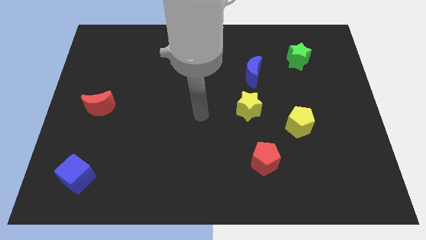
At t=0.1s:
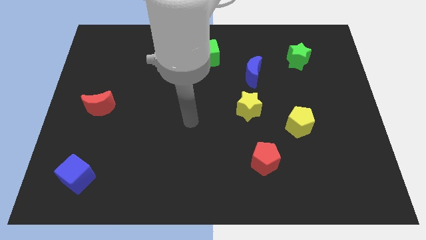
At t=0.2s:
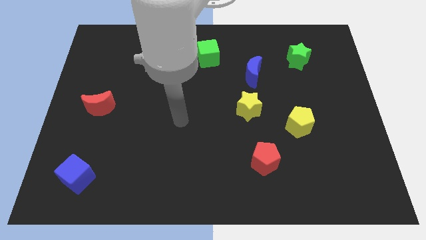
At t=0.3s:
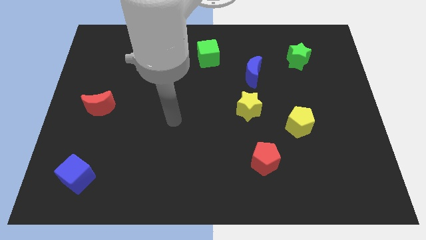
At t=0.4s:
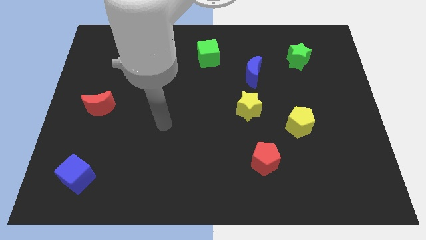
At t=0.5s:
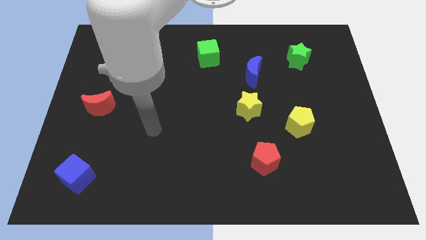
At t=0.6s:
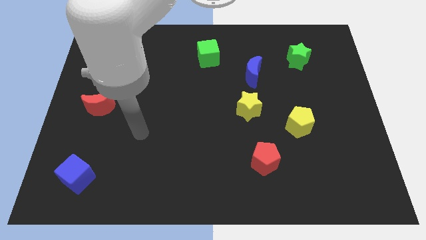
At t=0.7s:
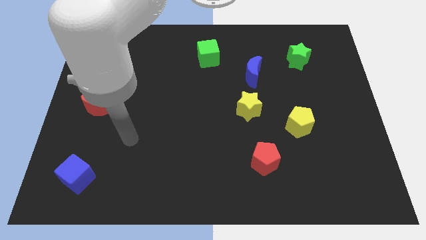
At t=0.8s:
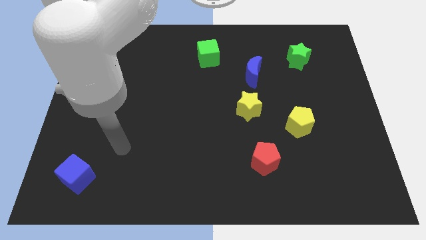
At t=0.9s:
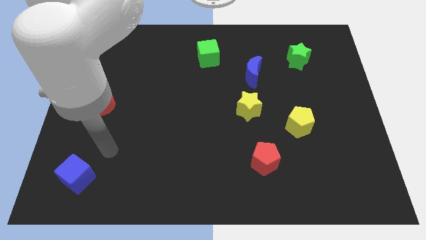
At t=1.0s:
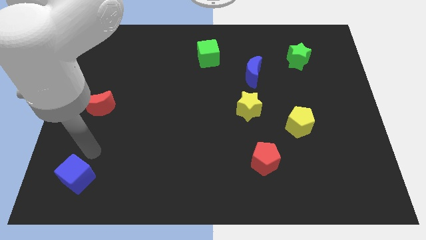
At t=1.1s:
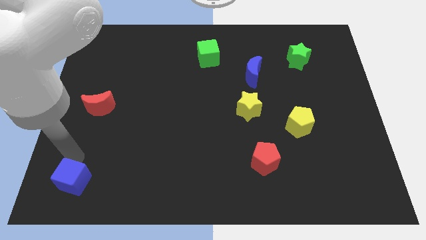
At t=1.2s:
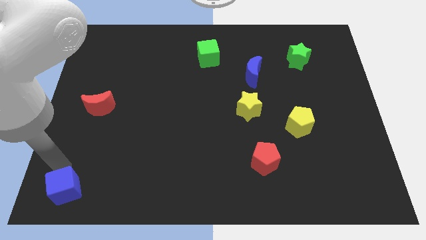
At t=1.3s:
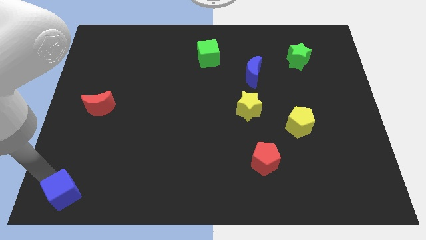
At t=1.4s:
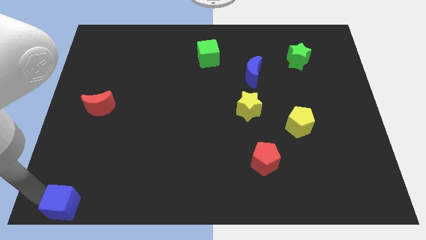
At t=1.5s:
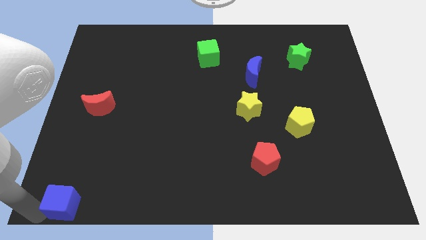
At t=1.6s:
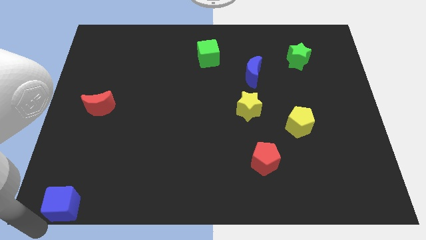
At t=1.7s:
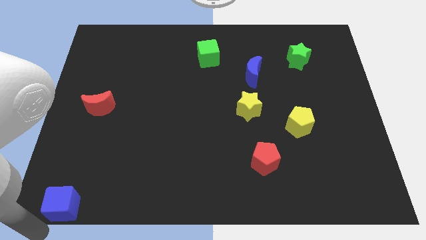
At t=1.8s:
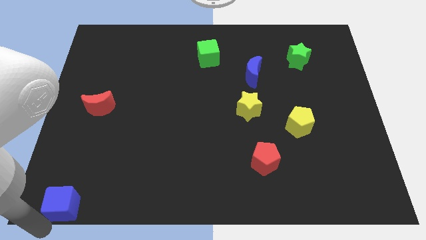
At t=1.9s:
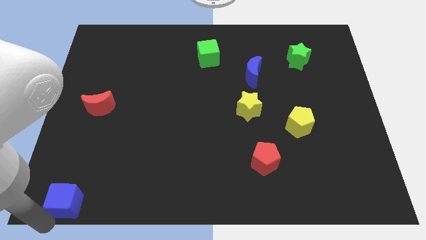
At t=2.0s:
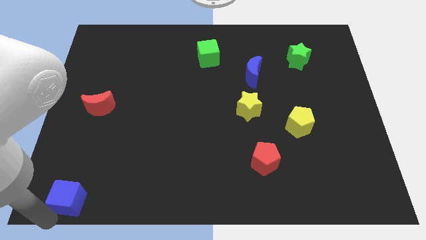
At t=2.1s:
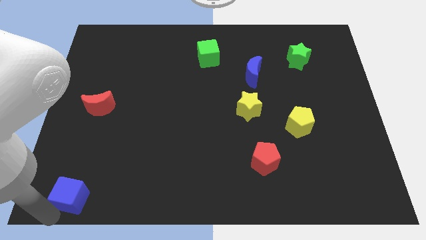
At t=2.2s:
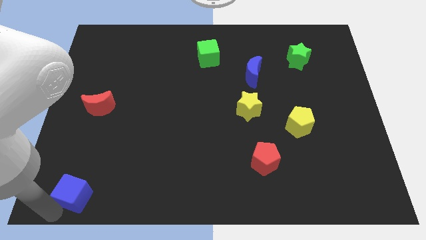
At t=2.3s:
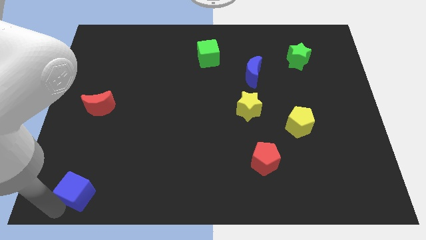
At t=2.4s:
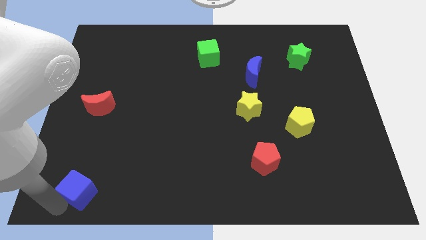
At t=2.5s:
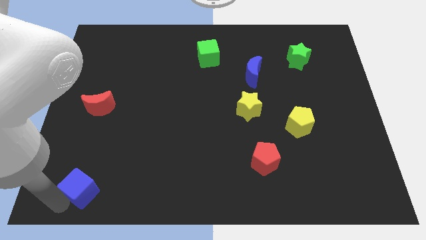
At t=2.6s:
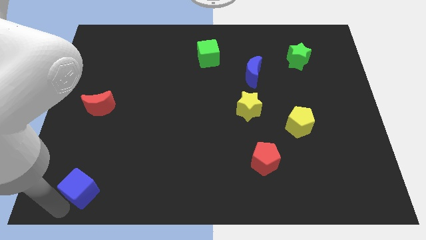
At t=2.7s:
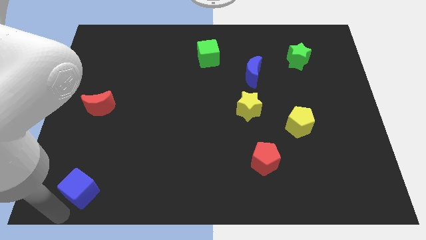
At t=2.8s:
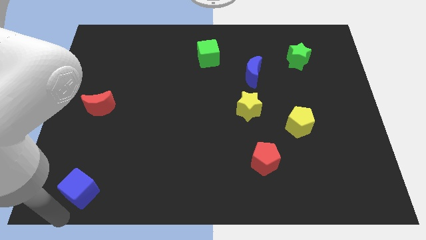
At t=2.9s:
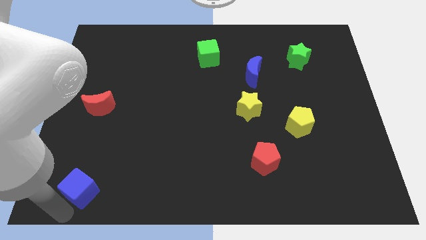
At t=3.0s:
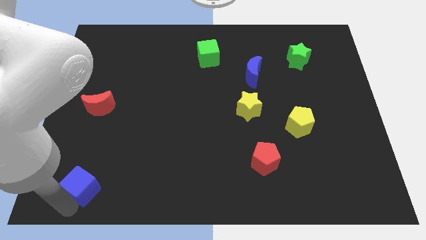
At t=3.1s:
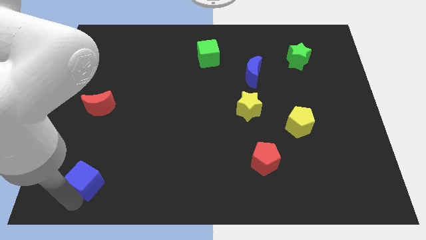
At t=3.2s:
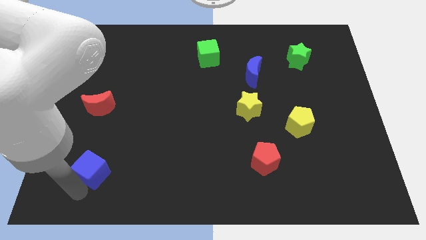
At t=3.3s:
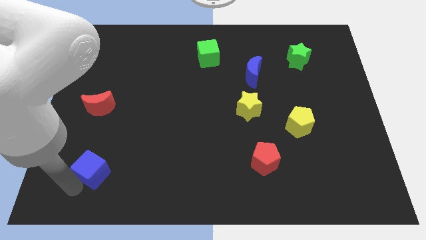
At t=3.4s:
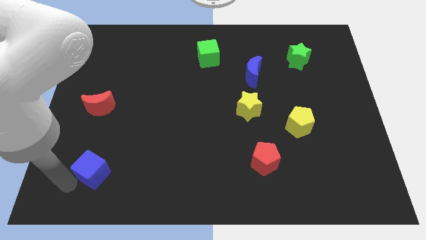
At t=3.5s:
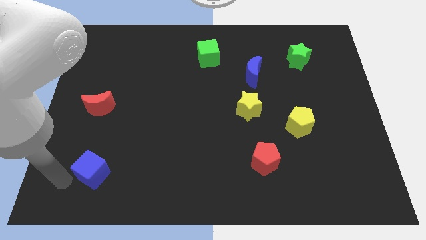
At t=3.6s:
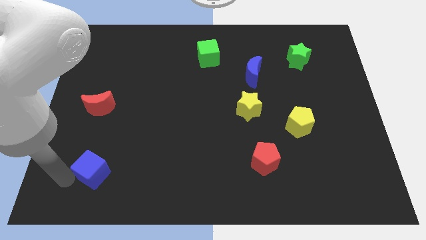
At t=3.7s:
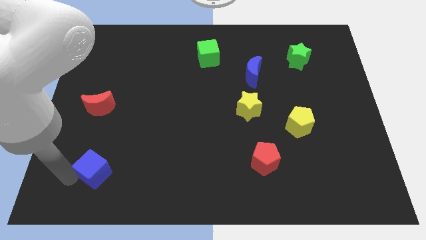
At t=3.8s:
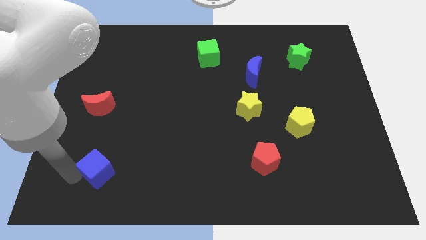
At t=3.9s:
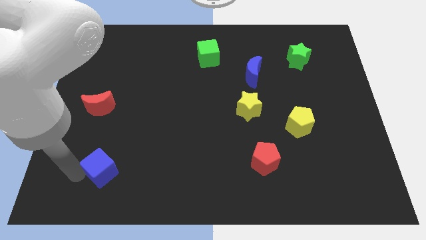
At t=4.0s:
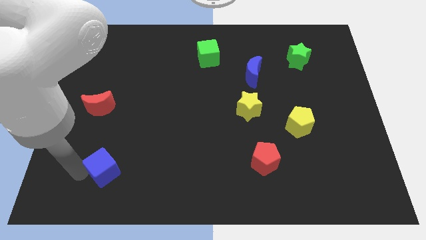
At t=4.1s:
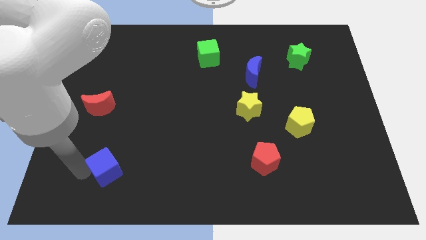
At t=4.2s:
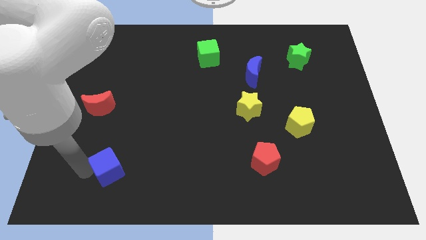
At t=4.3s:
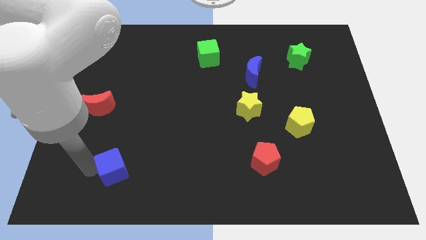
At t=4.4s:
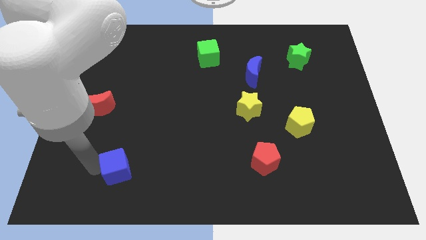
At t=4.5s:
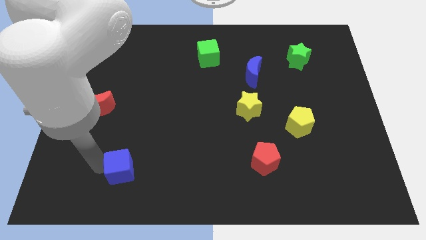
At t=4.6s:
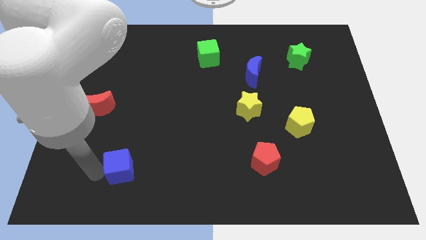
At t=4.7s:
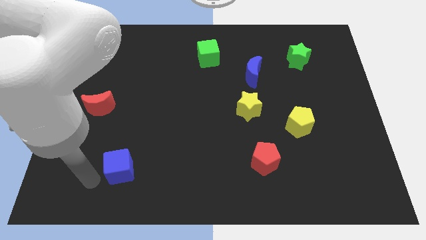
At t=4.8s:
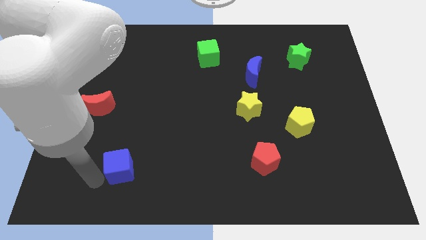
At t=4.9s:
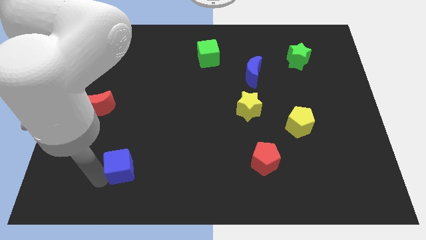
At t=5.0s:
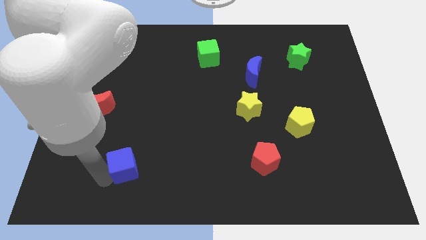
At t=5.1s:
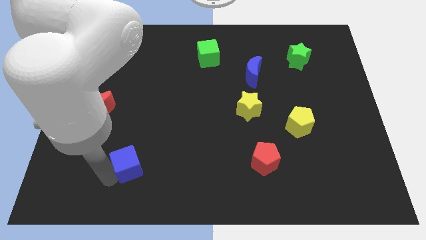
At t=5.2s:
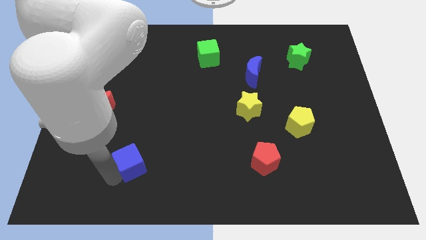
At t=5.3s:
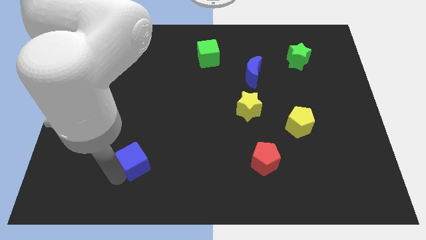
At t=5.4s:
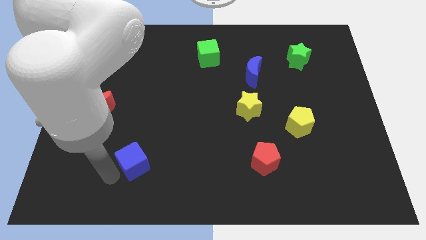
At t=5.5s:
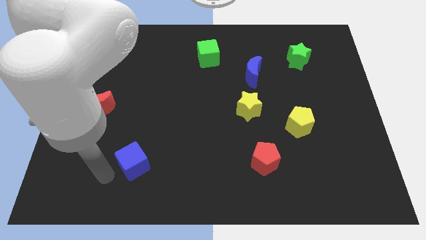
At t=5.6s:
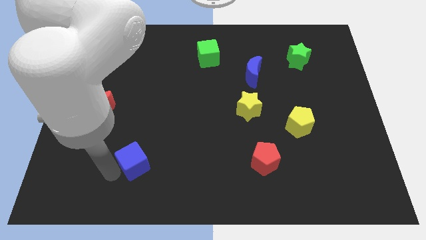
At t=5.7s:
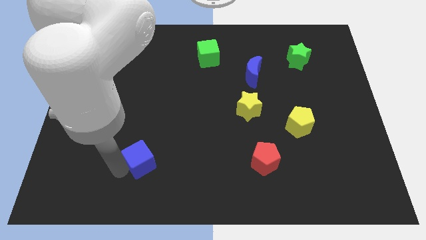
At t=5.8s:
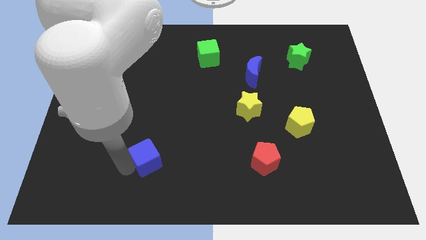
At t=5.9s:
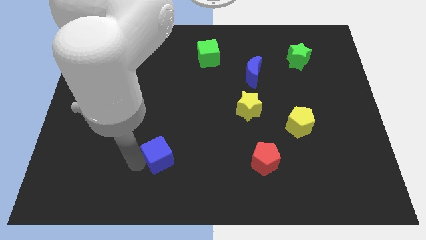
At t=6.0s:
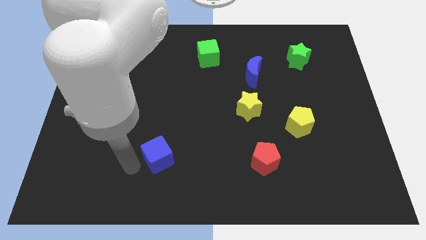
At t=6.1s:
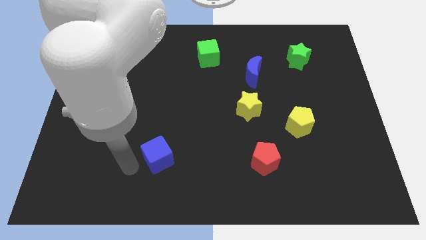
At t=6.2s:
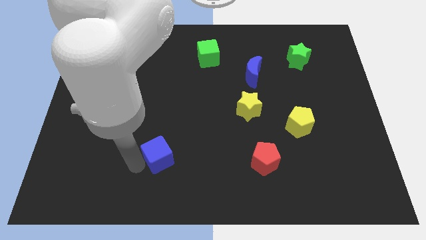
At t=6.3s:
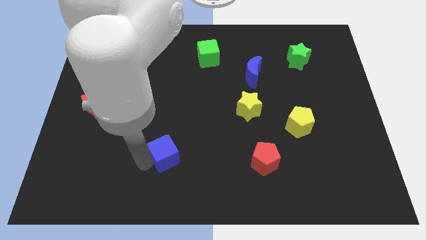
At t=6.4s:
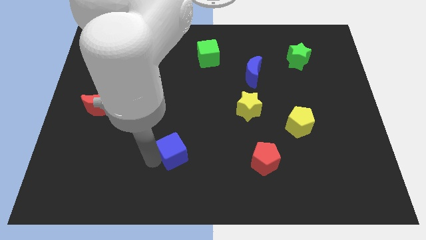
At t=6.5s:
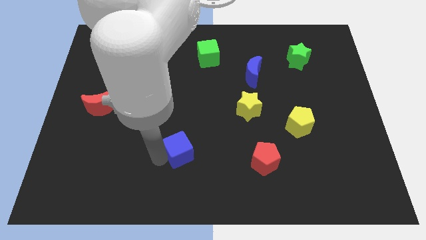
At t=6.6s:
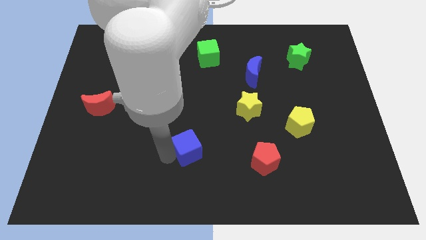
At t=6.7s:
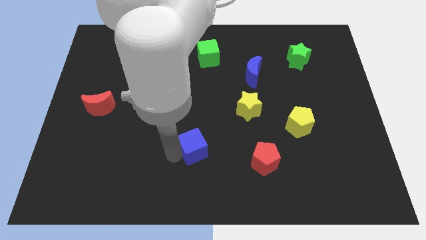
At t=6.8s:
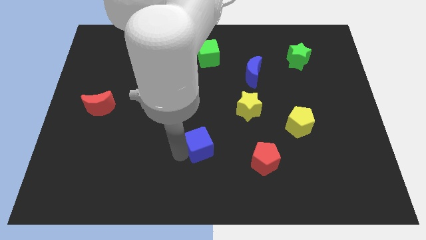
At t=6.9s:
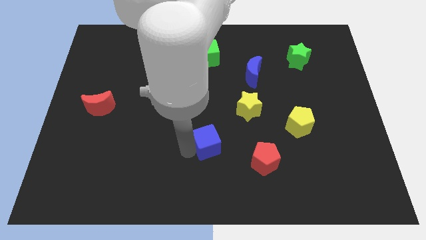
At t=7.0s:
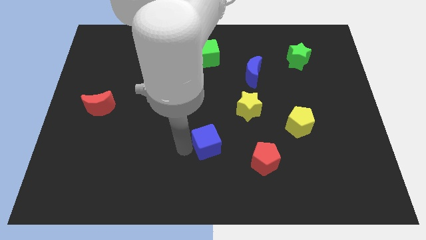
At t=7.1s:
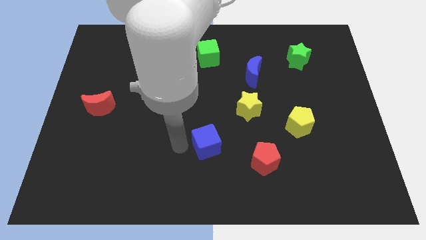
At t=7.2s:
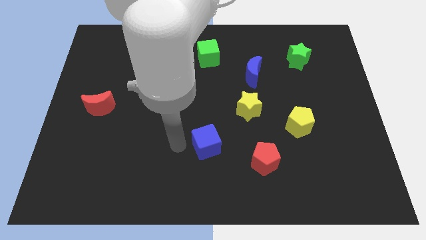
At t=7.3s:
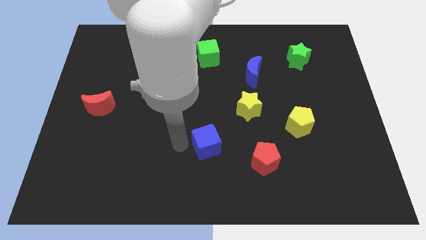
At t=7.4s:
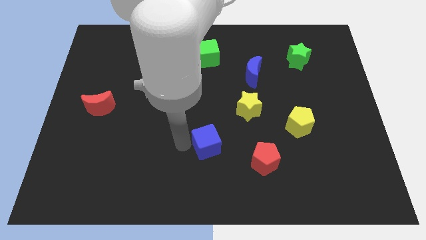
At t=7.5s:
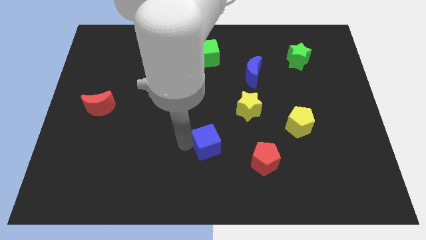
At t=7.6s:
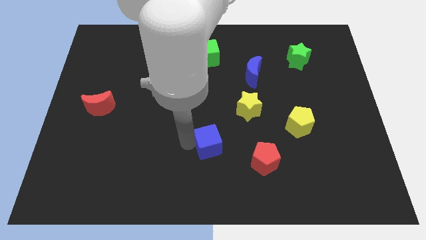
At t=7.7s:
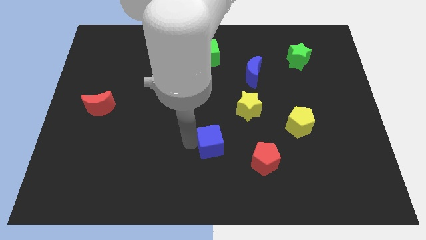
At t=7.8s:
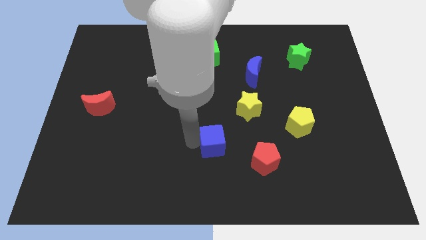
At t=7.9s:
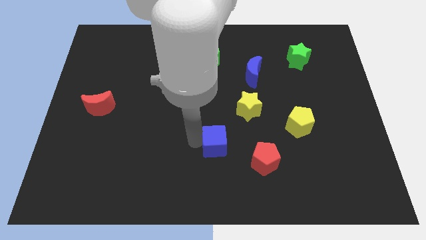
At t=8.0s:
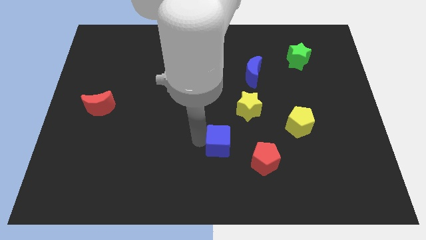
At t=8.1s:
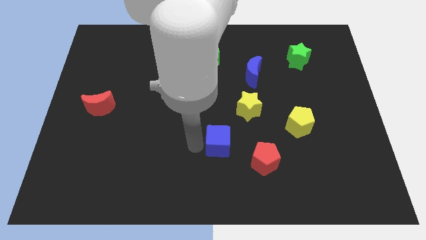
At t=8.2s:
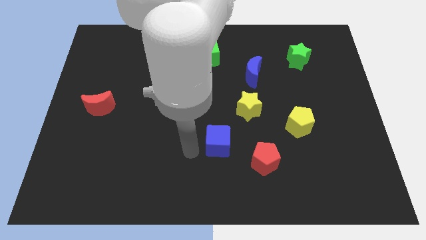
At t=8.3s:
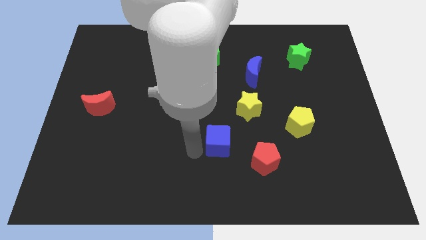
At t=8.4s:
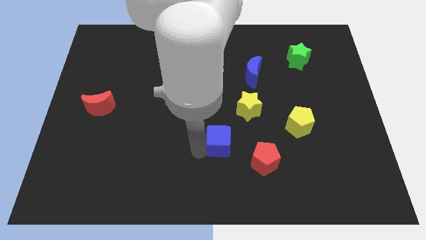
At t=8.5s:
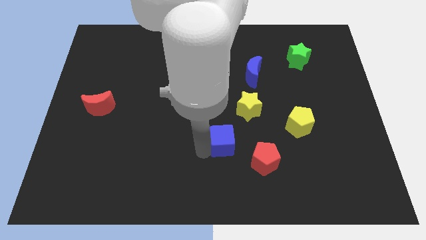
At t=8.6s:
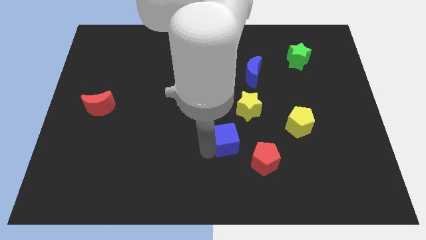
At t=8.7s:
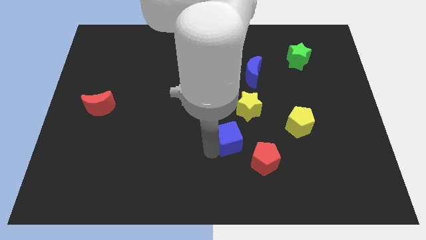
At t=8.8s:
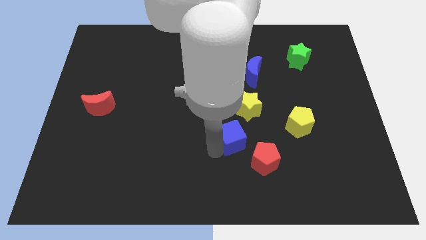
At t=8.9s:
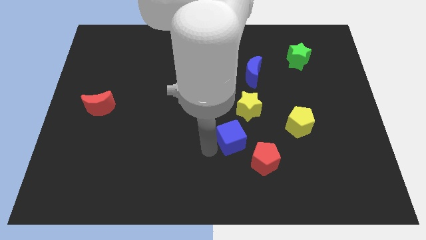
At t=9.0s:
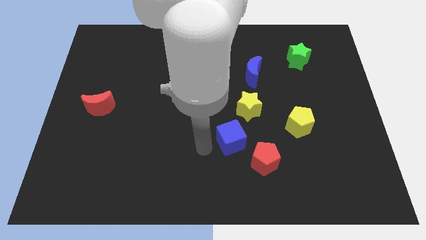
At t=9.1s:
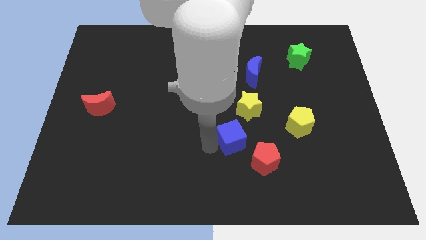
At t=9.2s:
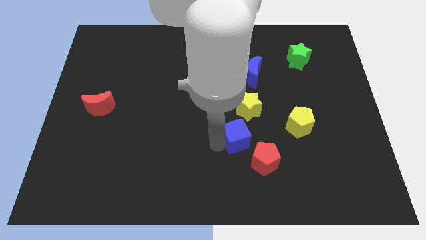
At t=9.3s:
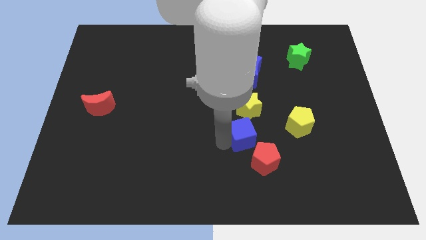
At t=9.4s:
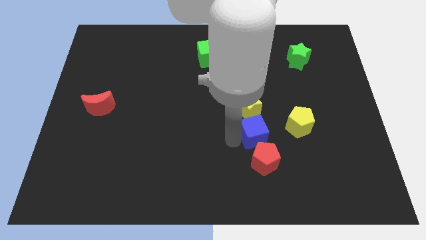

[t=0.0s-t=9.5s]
push the blue cube to the bottom right of the yellow star
